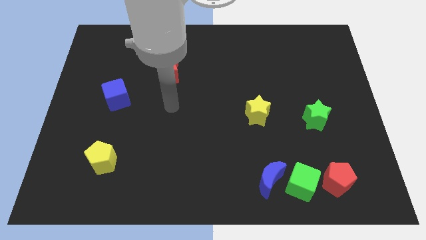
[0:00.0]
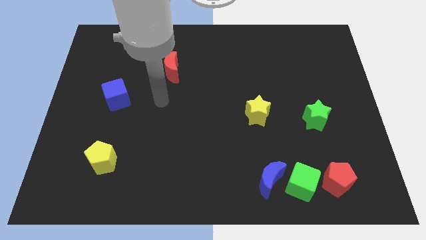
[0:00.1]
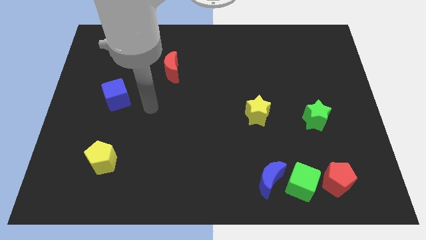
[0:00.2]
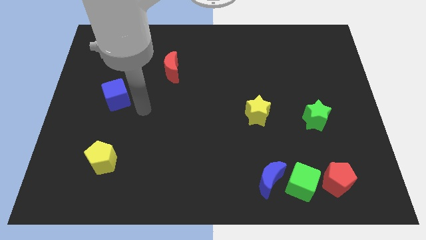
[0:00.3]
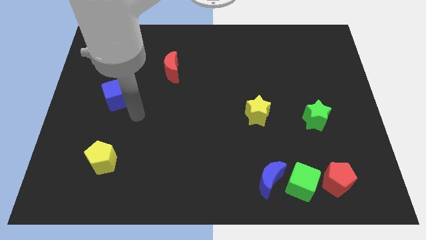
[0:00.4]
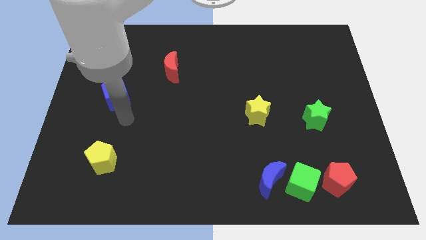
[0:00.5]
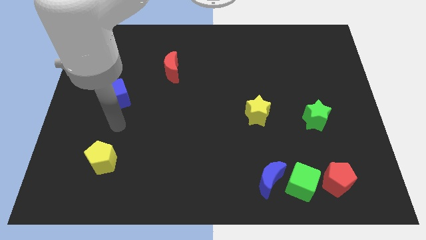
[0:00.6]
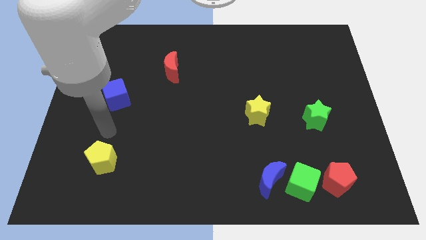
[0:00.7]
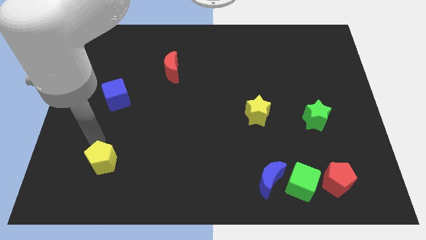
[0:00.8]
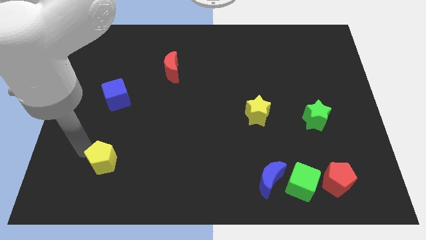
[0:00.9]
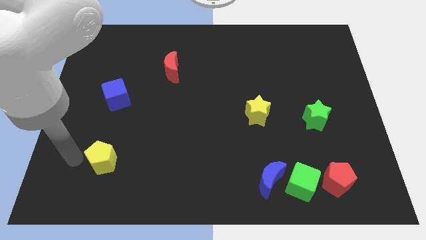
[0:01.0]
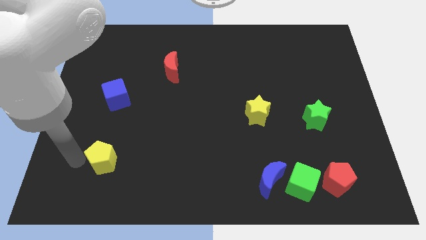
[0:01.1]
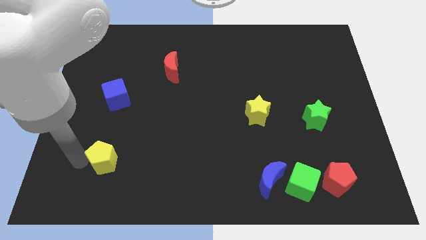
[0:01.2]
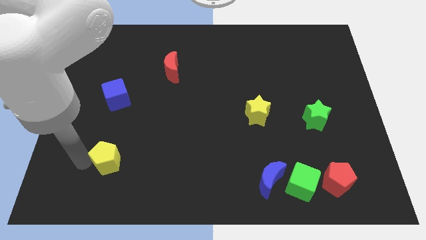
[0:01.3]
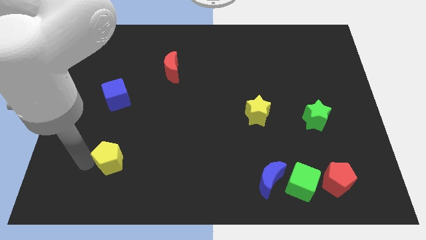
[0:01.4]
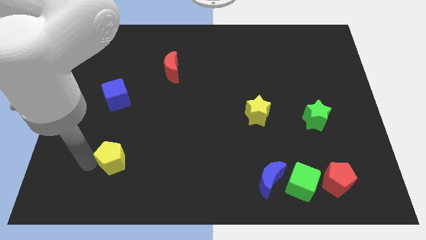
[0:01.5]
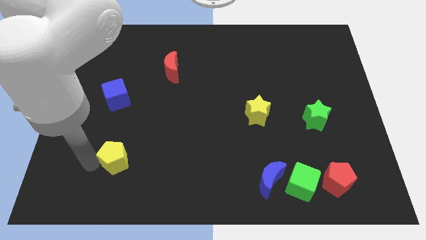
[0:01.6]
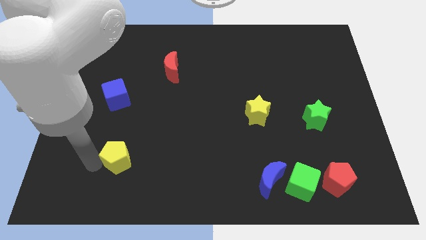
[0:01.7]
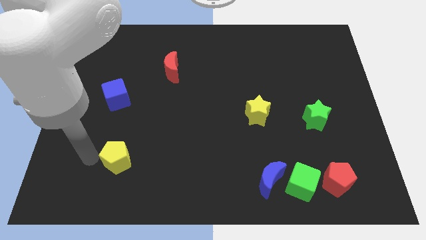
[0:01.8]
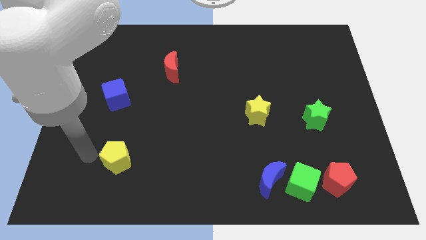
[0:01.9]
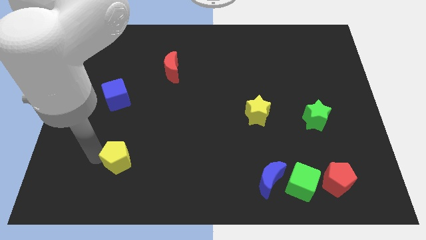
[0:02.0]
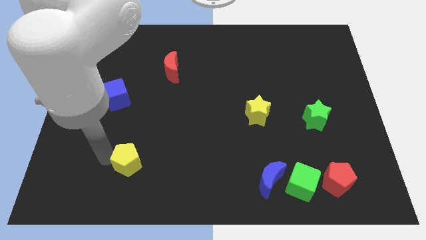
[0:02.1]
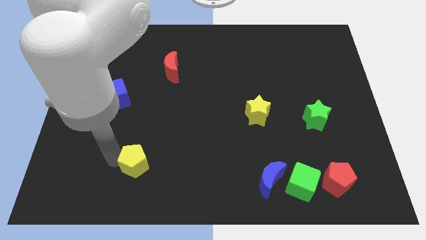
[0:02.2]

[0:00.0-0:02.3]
slightly push the yellow pentagon right

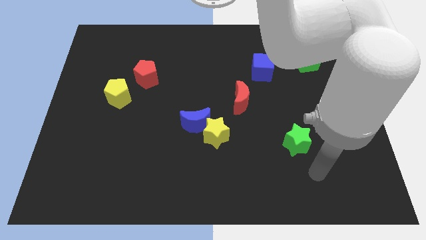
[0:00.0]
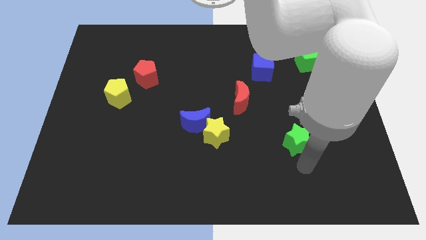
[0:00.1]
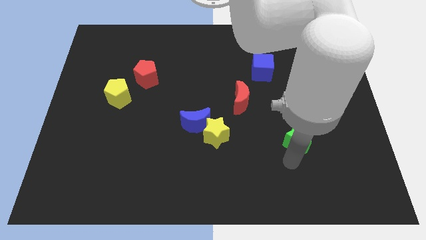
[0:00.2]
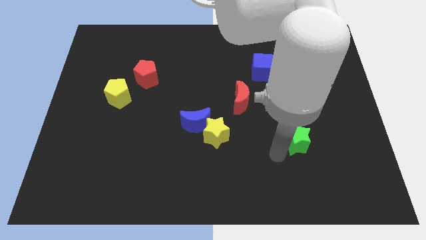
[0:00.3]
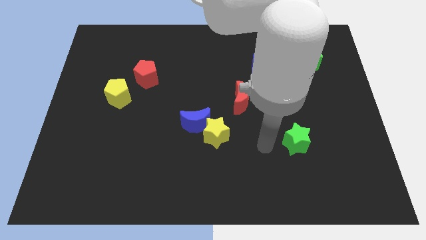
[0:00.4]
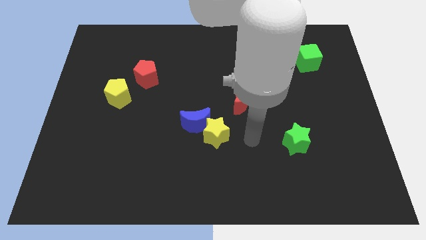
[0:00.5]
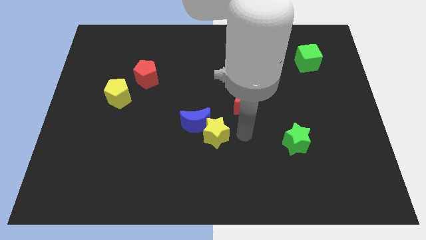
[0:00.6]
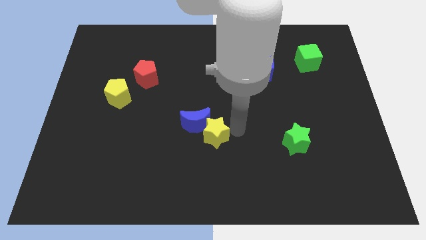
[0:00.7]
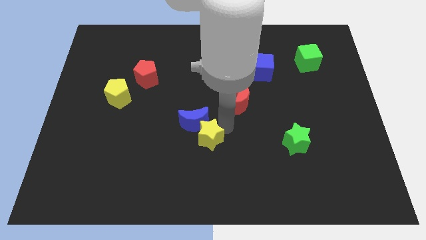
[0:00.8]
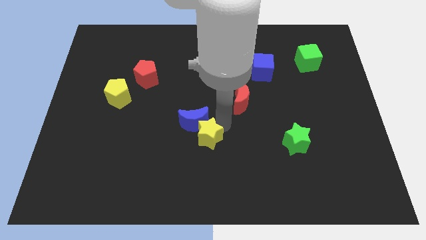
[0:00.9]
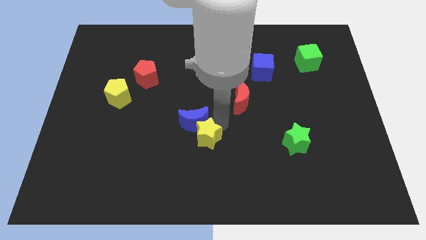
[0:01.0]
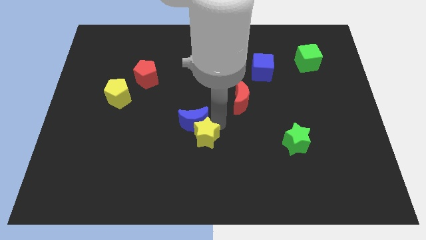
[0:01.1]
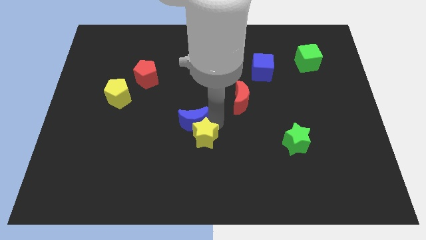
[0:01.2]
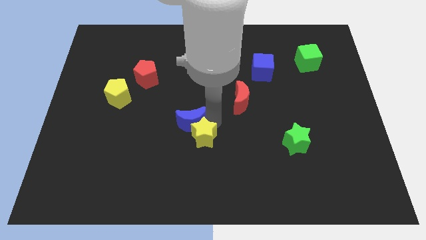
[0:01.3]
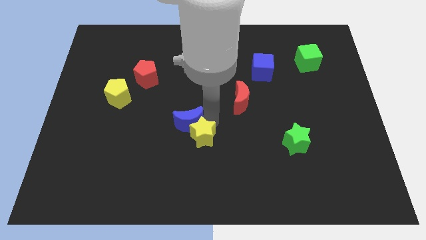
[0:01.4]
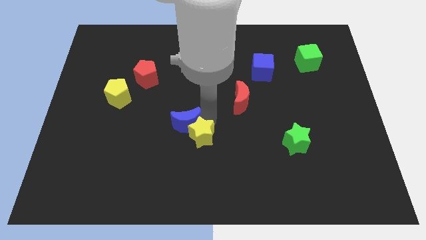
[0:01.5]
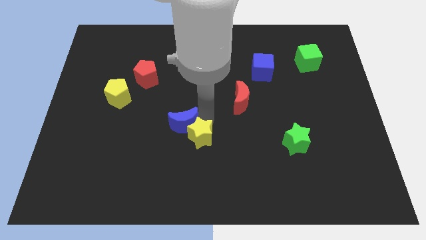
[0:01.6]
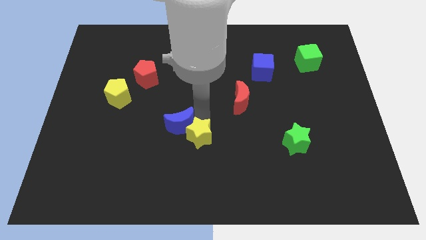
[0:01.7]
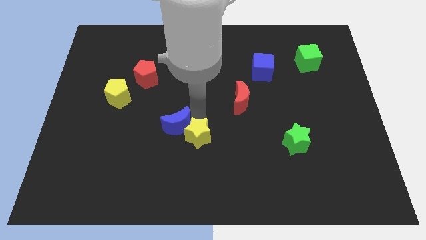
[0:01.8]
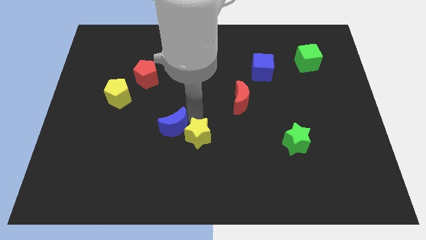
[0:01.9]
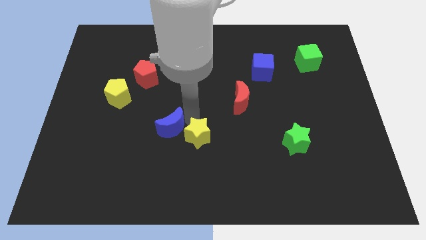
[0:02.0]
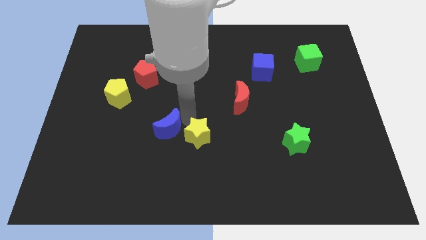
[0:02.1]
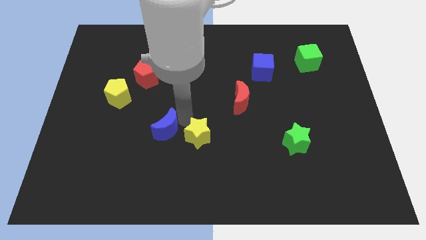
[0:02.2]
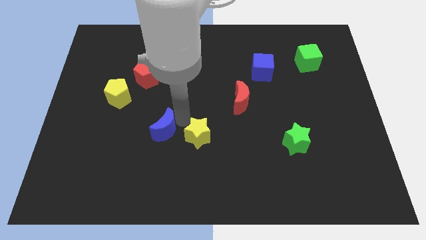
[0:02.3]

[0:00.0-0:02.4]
move the blue moon left a little

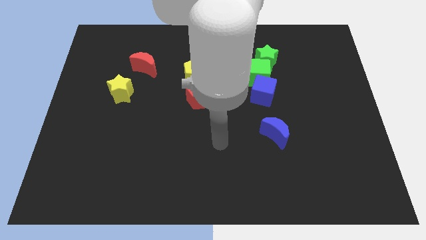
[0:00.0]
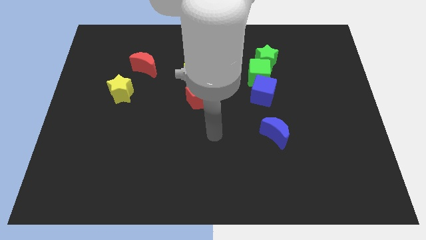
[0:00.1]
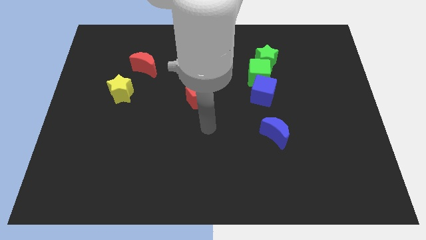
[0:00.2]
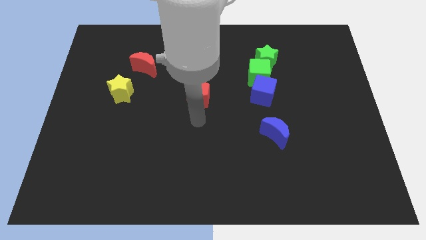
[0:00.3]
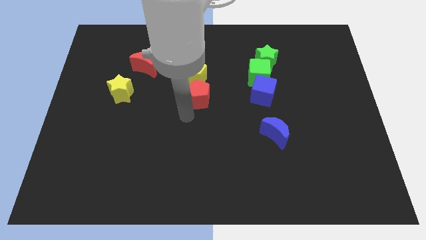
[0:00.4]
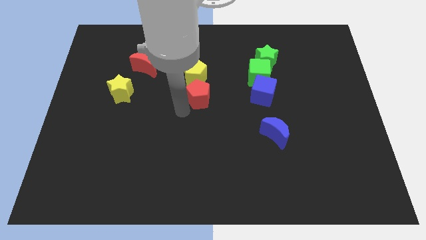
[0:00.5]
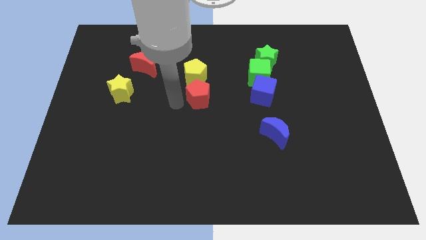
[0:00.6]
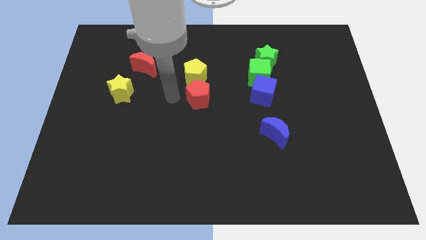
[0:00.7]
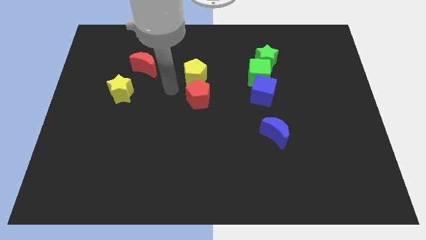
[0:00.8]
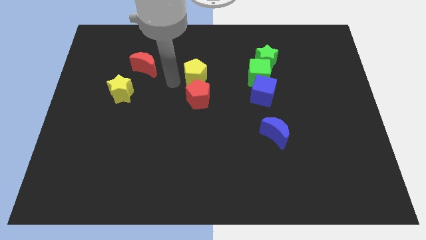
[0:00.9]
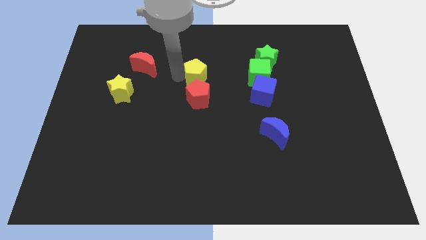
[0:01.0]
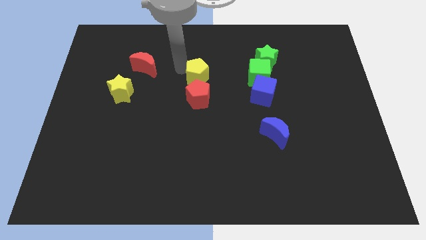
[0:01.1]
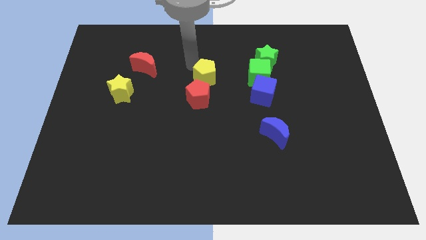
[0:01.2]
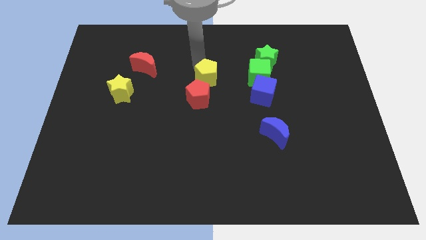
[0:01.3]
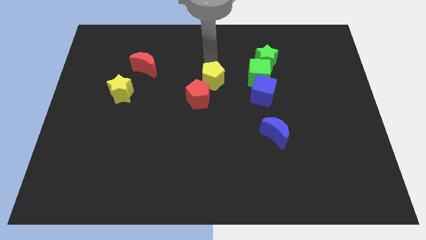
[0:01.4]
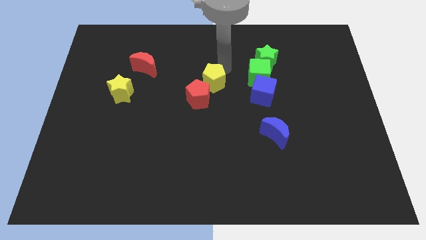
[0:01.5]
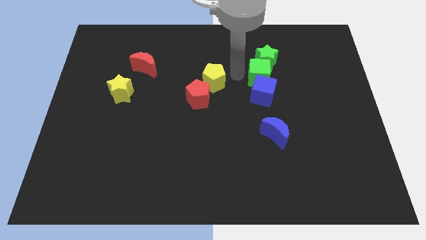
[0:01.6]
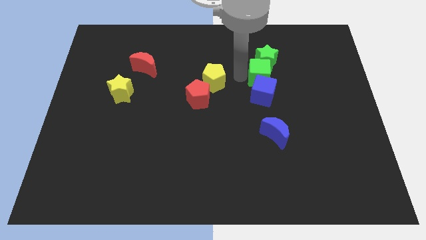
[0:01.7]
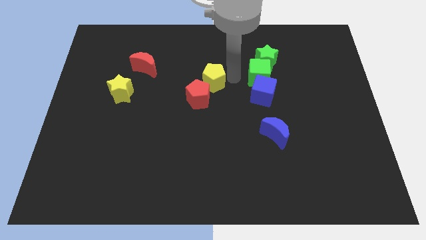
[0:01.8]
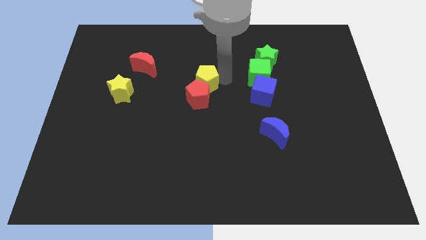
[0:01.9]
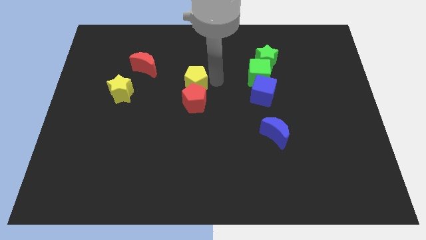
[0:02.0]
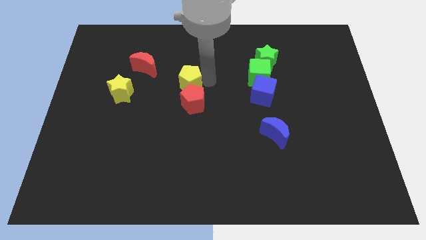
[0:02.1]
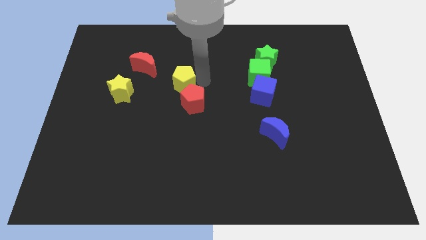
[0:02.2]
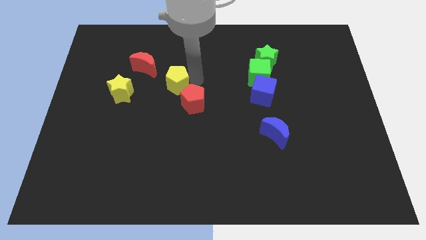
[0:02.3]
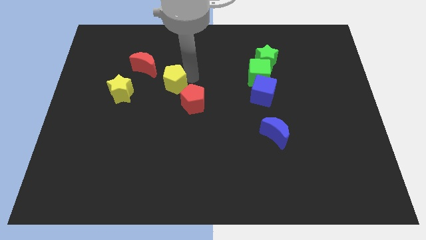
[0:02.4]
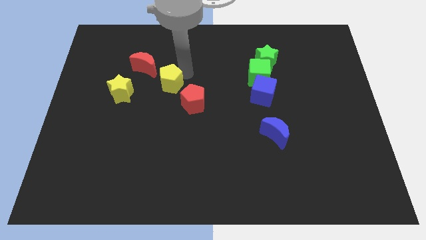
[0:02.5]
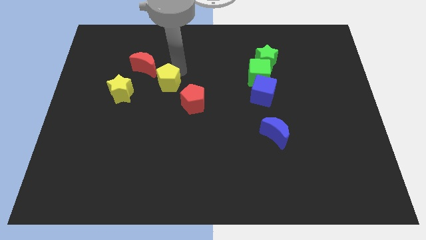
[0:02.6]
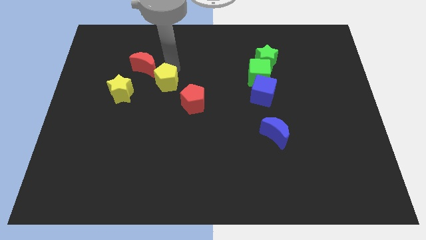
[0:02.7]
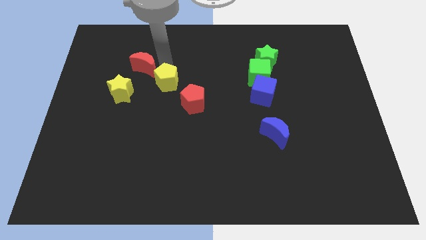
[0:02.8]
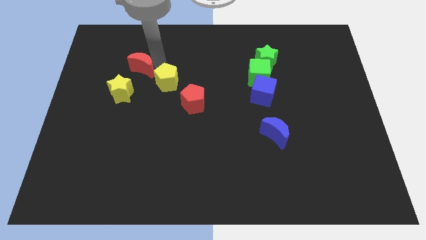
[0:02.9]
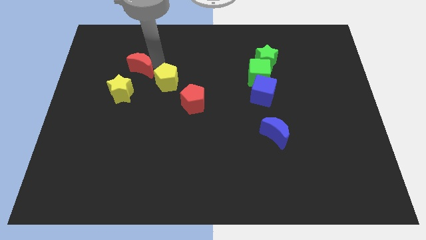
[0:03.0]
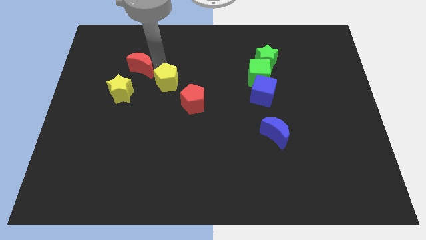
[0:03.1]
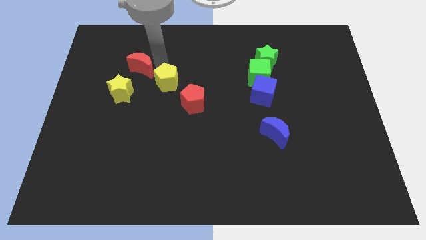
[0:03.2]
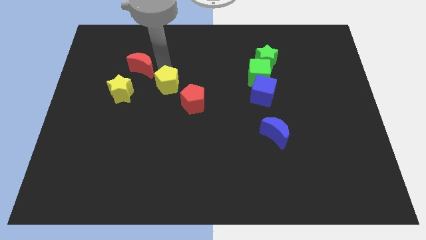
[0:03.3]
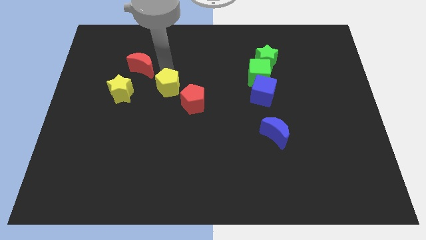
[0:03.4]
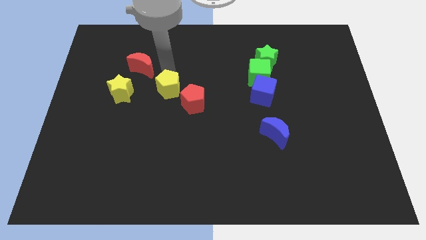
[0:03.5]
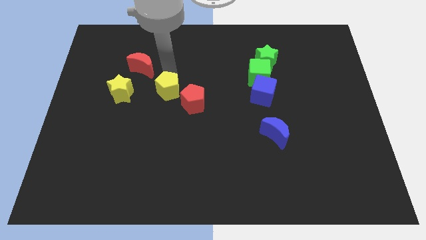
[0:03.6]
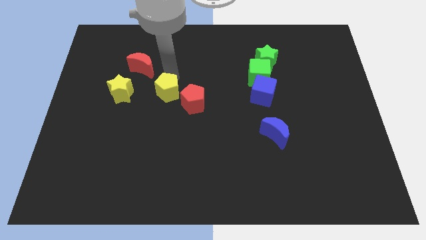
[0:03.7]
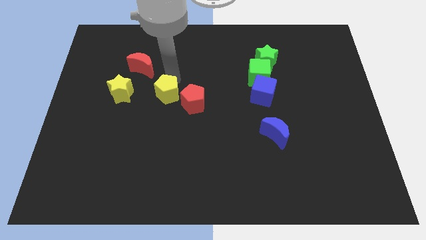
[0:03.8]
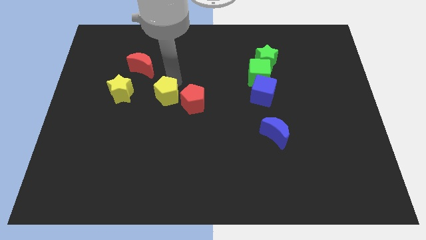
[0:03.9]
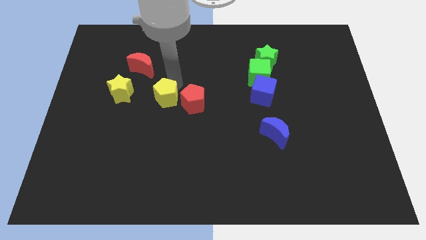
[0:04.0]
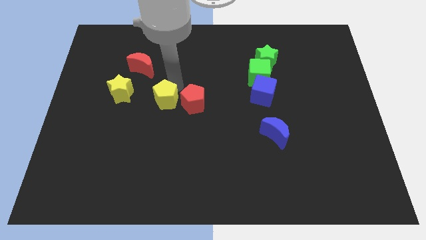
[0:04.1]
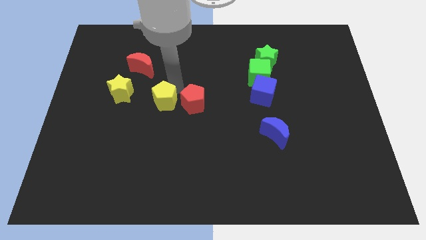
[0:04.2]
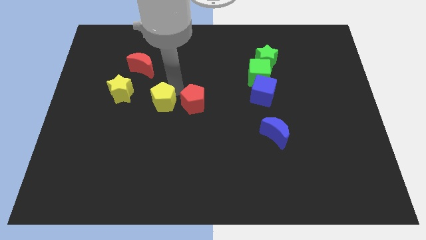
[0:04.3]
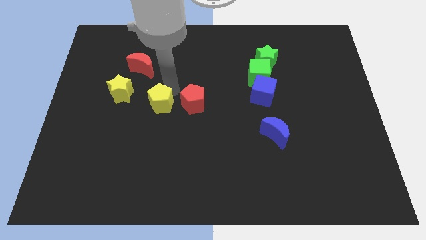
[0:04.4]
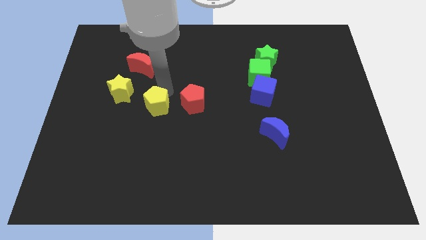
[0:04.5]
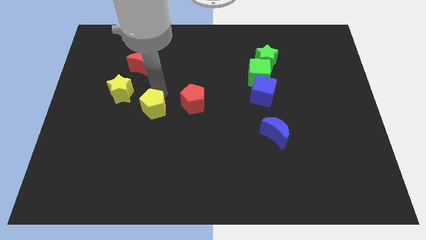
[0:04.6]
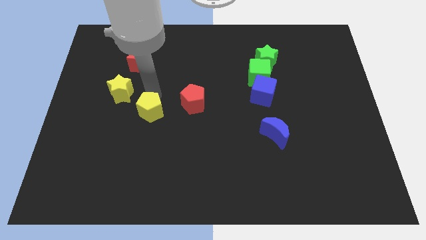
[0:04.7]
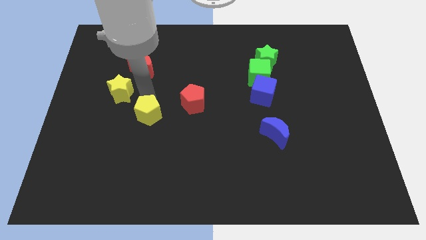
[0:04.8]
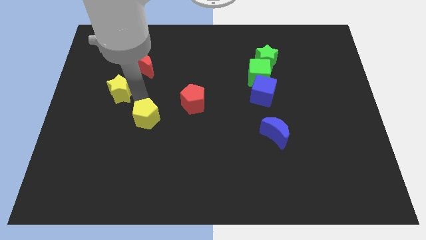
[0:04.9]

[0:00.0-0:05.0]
slightly slide the yellow pentagon downwards
